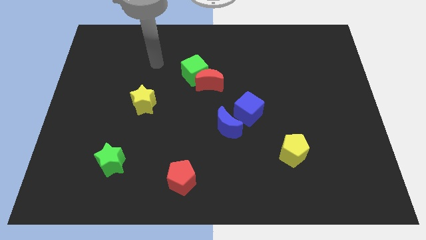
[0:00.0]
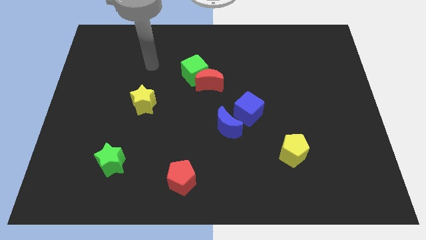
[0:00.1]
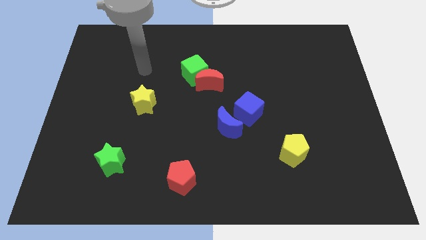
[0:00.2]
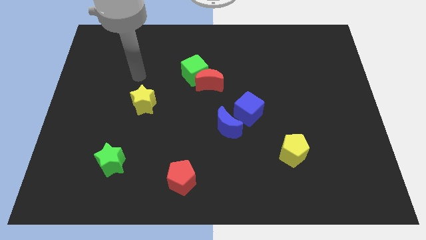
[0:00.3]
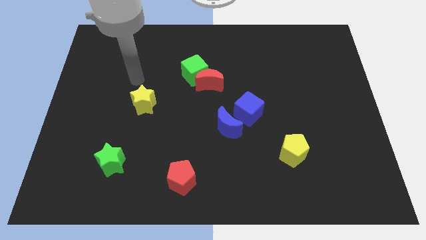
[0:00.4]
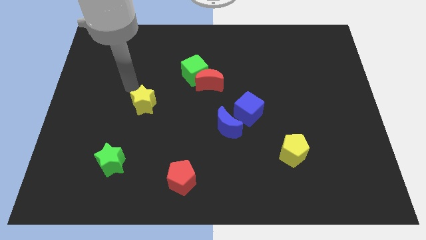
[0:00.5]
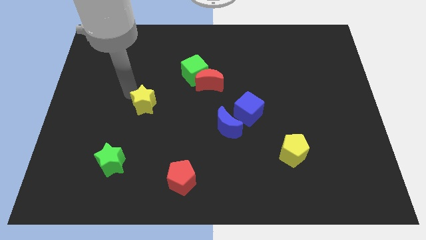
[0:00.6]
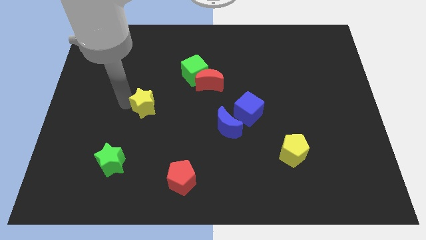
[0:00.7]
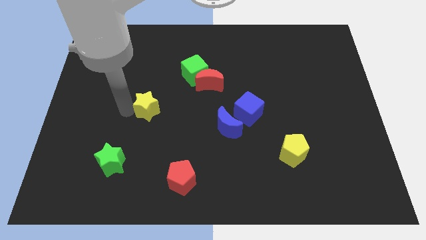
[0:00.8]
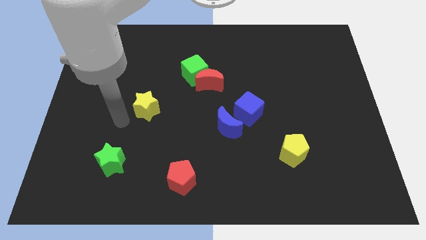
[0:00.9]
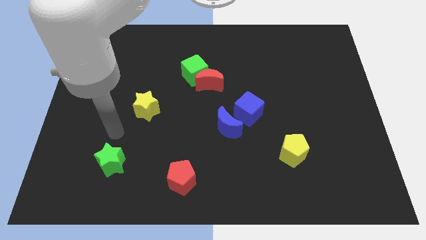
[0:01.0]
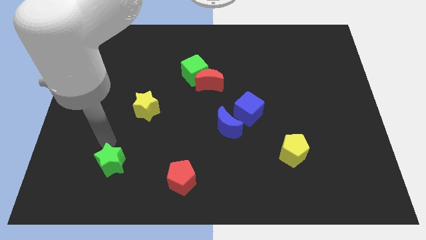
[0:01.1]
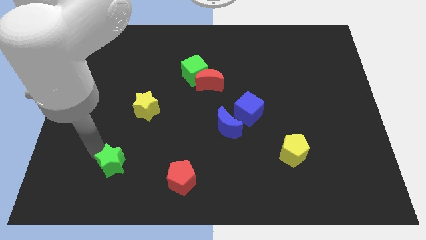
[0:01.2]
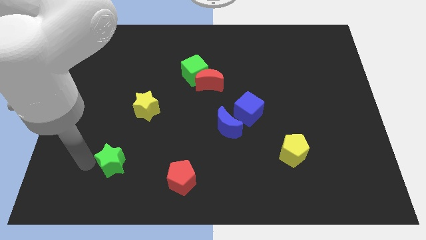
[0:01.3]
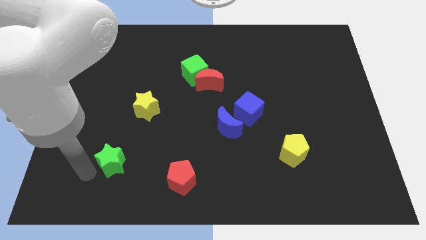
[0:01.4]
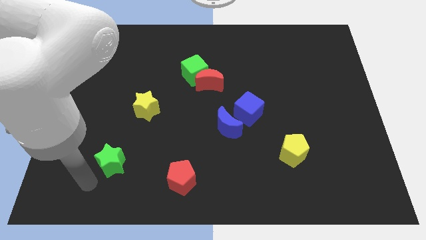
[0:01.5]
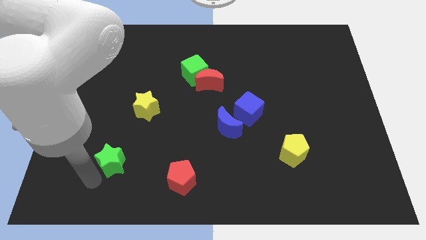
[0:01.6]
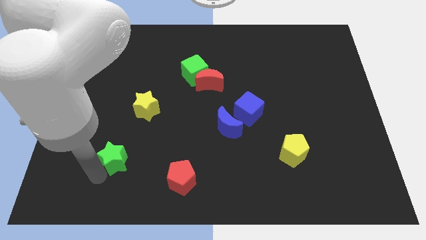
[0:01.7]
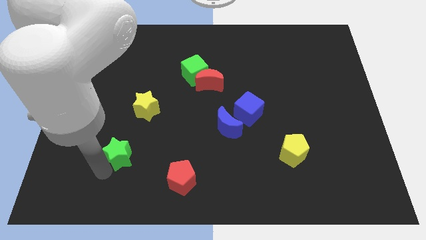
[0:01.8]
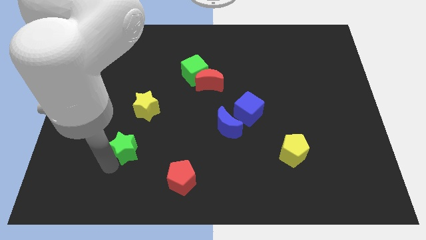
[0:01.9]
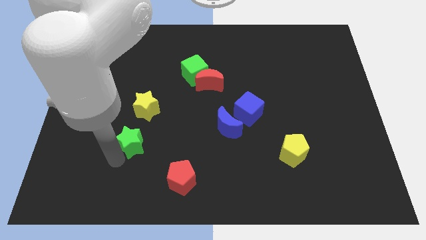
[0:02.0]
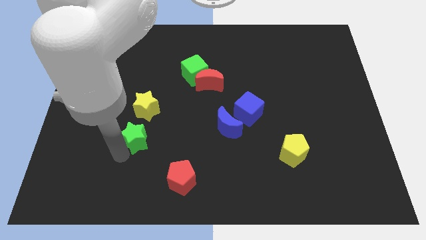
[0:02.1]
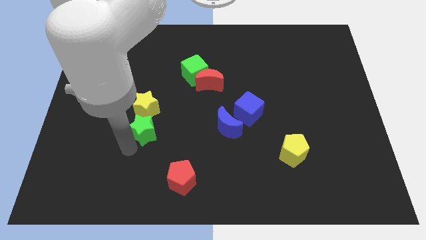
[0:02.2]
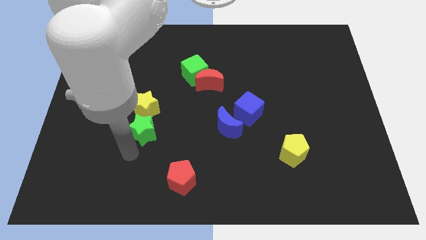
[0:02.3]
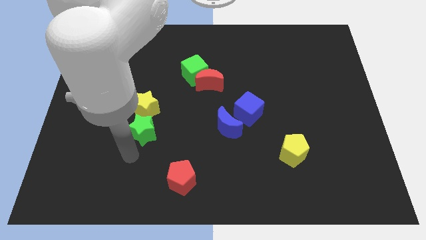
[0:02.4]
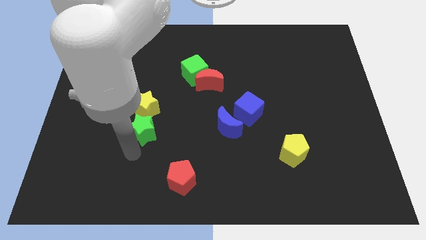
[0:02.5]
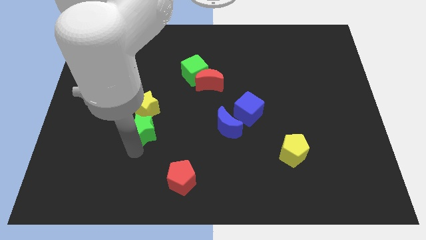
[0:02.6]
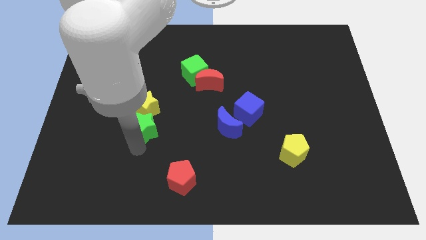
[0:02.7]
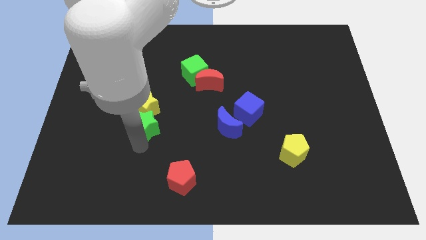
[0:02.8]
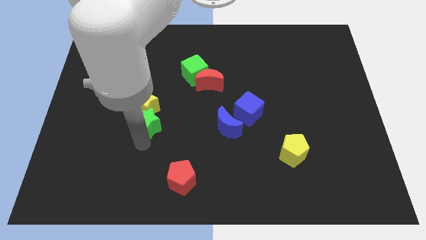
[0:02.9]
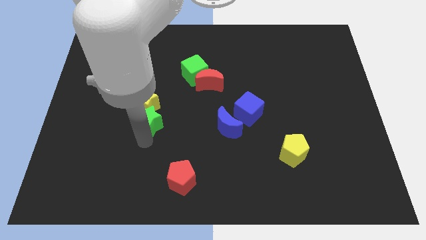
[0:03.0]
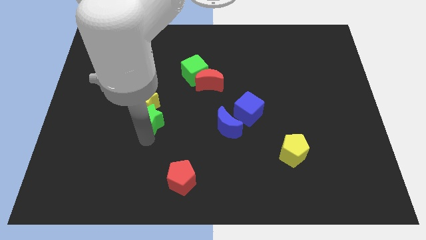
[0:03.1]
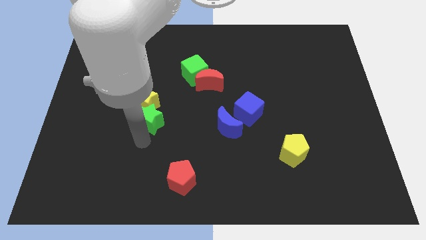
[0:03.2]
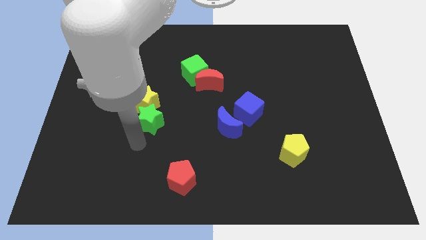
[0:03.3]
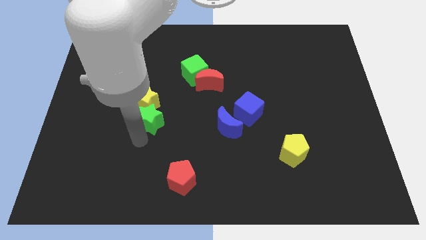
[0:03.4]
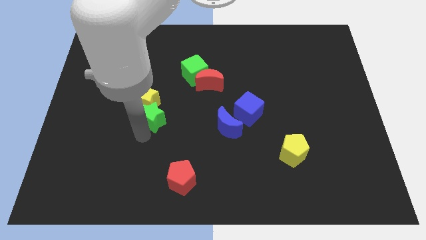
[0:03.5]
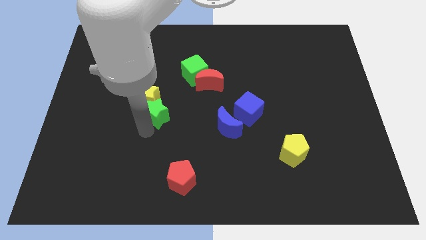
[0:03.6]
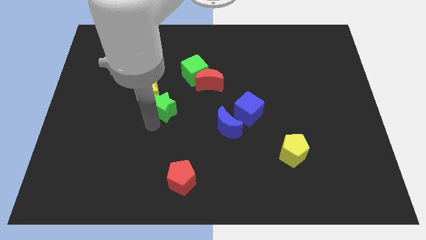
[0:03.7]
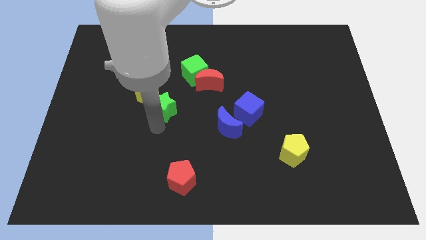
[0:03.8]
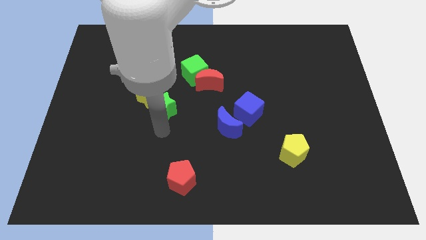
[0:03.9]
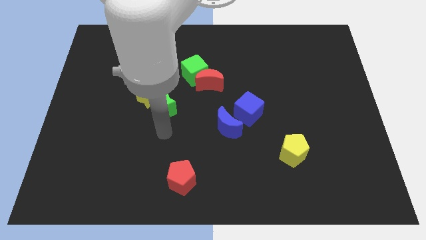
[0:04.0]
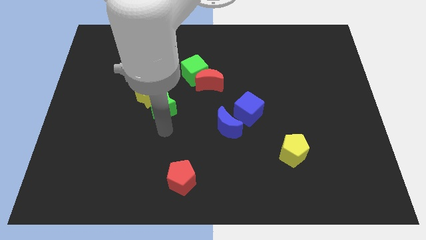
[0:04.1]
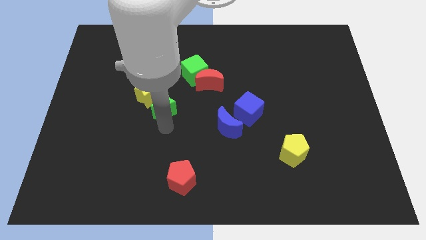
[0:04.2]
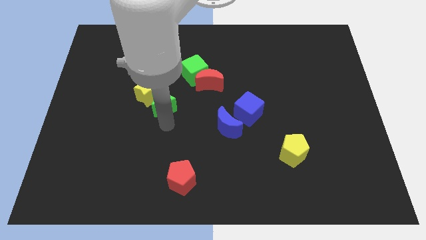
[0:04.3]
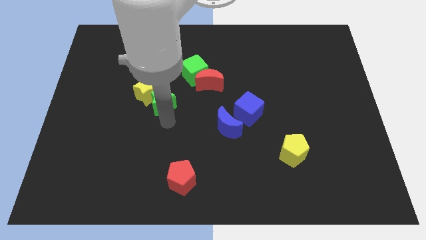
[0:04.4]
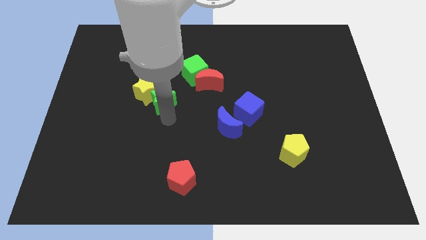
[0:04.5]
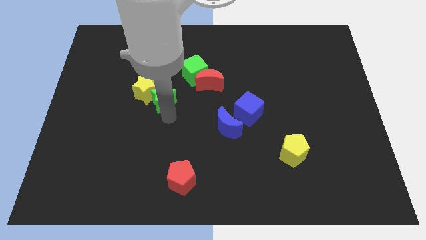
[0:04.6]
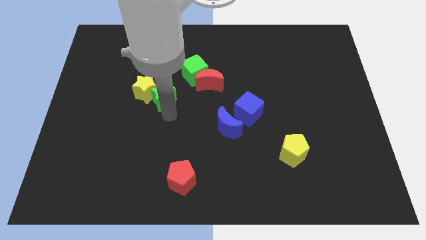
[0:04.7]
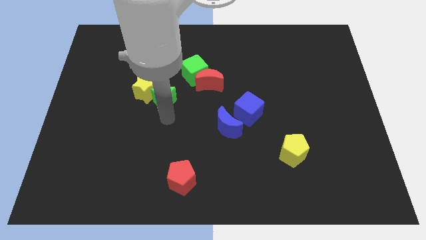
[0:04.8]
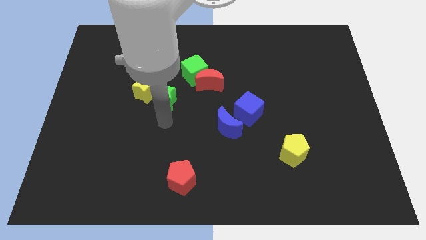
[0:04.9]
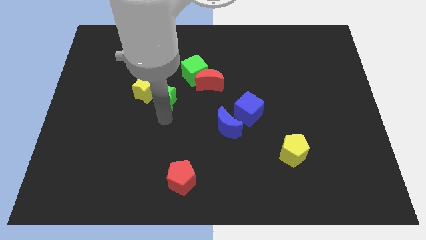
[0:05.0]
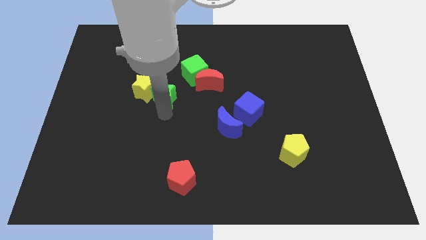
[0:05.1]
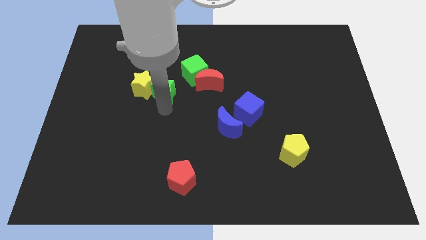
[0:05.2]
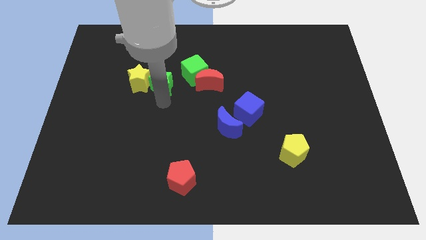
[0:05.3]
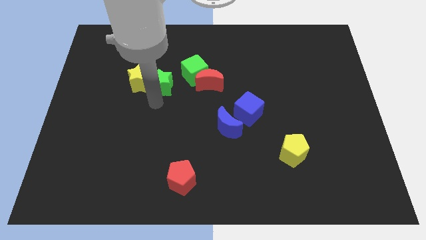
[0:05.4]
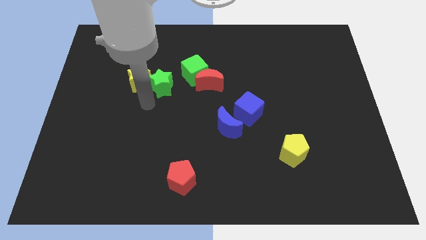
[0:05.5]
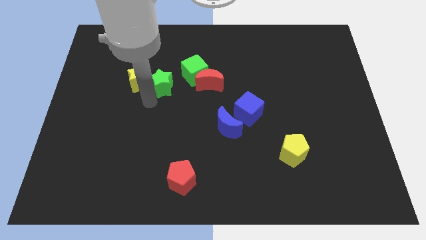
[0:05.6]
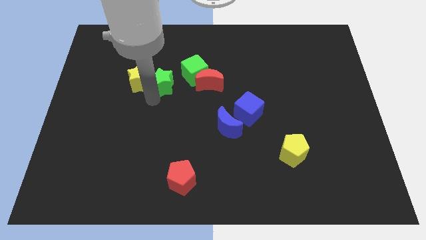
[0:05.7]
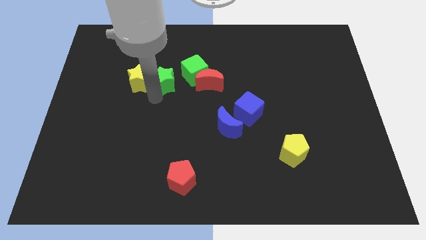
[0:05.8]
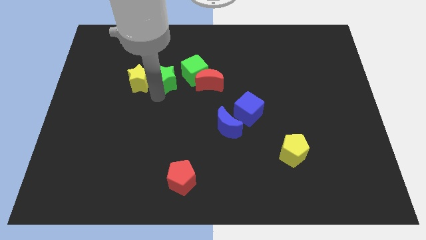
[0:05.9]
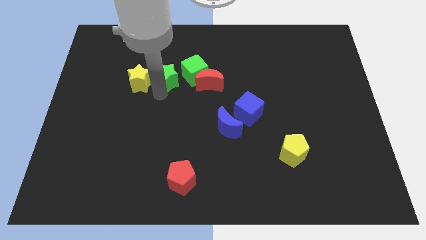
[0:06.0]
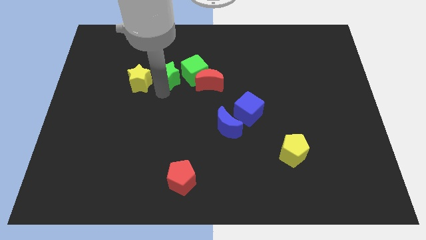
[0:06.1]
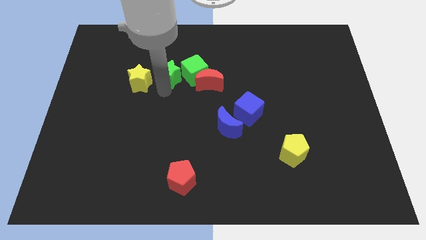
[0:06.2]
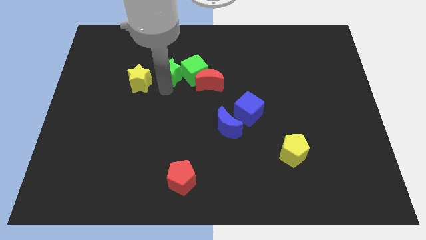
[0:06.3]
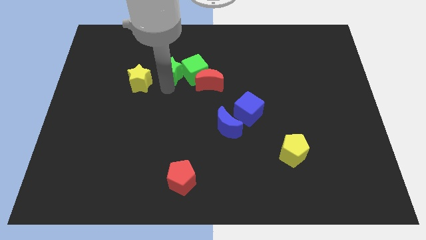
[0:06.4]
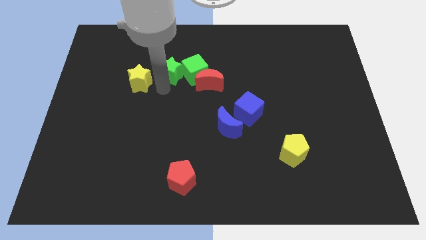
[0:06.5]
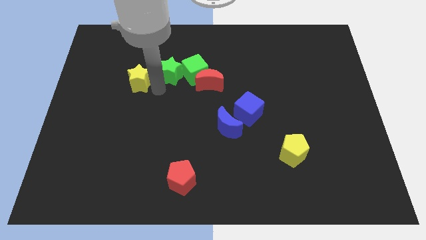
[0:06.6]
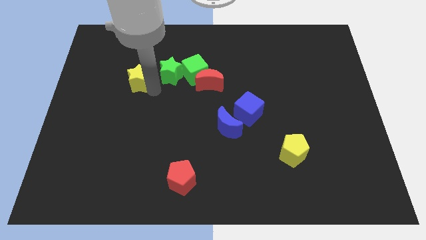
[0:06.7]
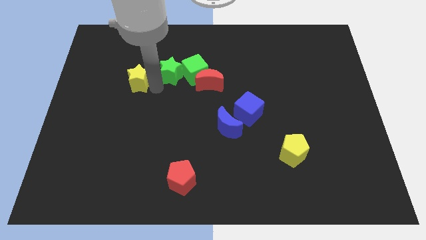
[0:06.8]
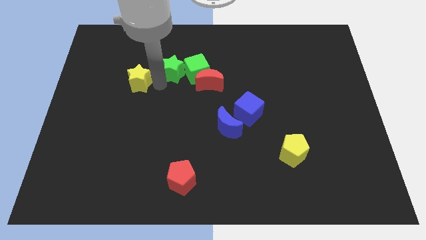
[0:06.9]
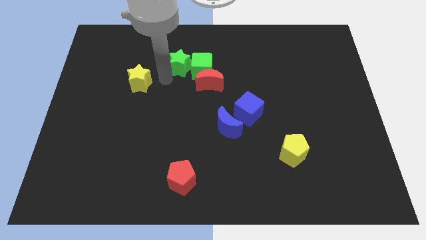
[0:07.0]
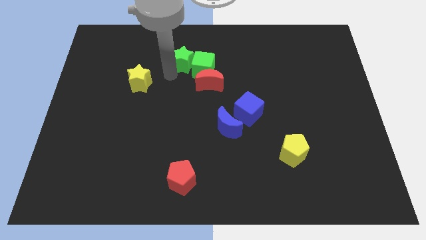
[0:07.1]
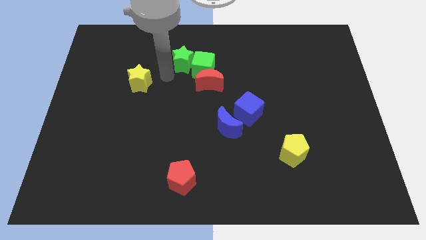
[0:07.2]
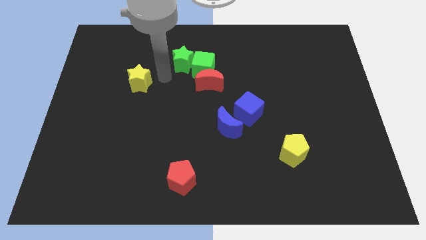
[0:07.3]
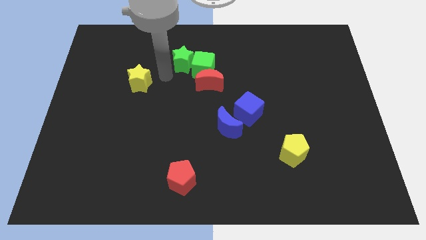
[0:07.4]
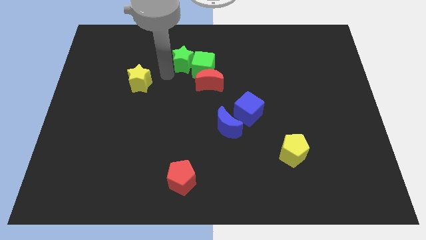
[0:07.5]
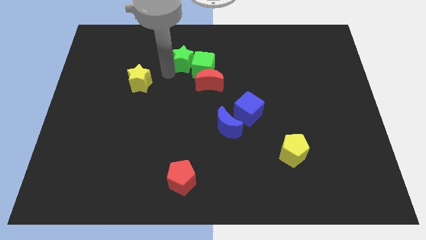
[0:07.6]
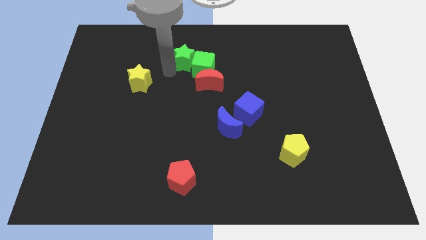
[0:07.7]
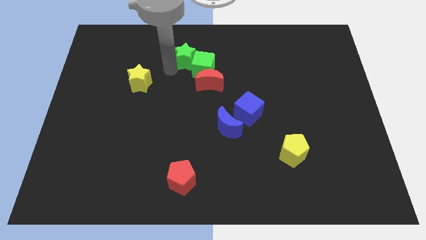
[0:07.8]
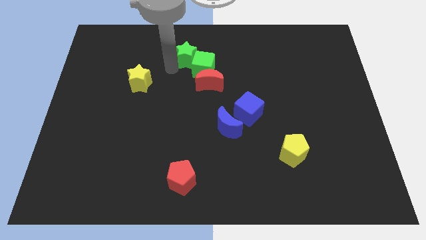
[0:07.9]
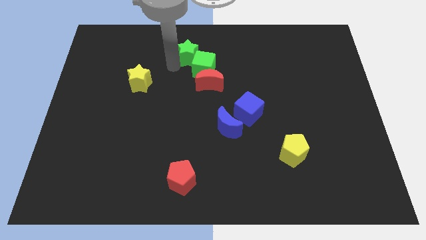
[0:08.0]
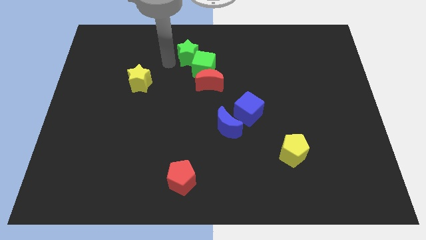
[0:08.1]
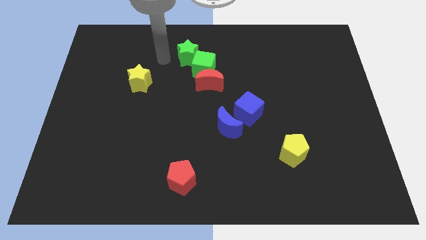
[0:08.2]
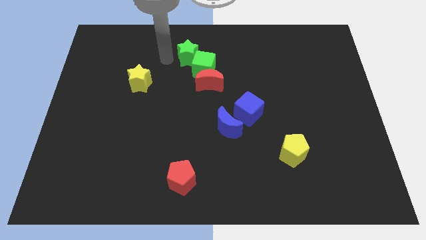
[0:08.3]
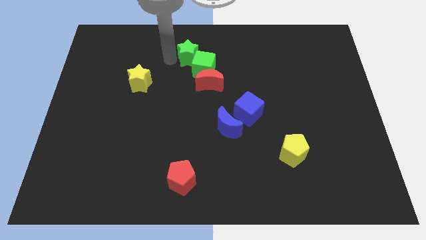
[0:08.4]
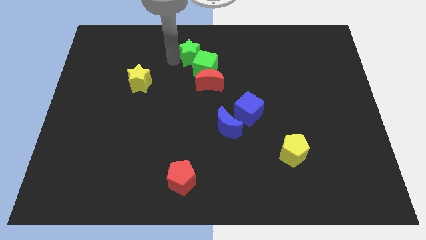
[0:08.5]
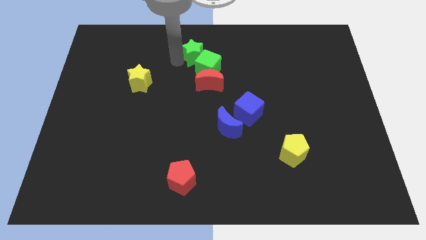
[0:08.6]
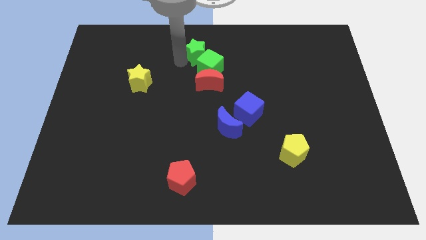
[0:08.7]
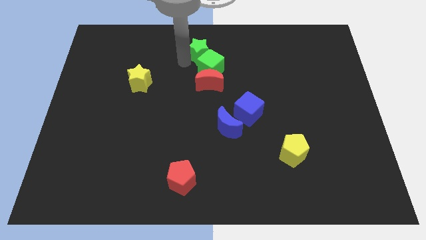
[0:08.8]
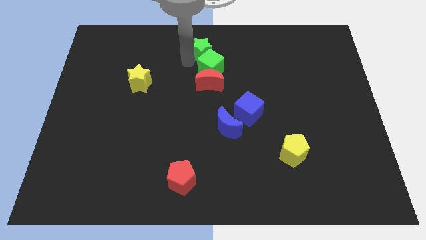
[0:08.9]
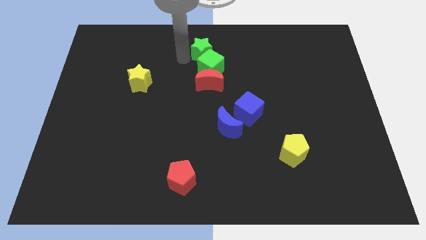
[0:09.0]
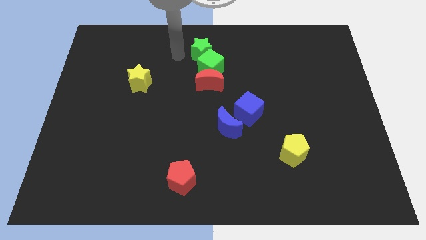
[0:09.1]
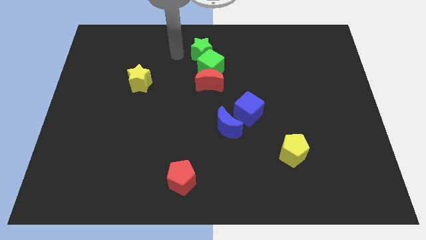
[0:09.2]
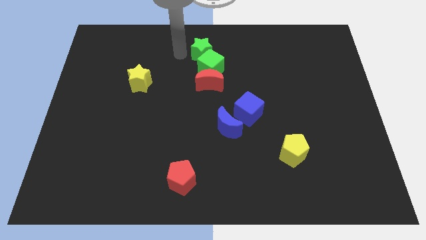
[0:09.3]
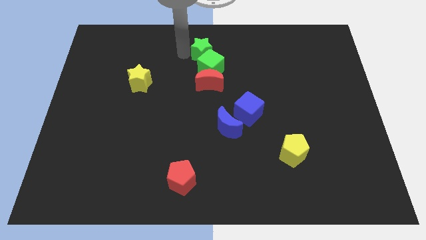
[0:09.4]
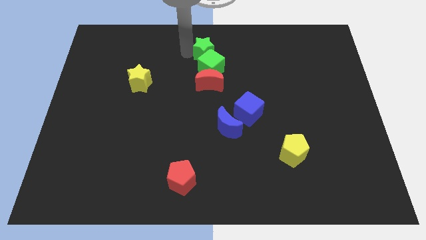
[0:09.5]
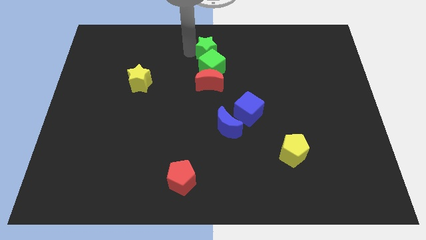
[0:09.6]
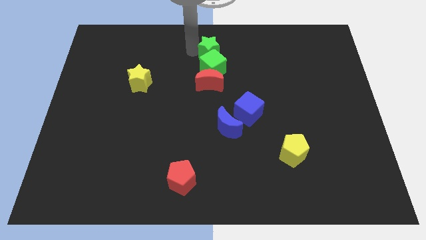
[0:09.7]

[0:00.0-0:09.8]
push the green star to the top right side of the green cube
